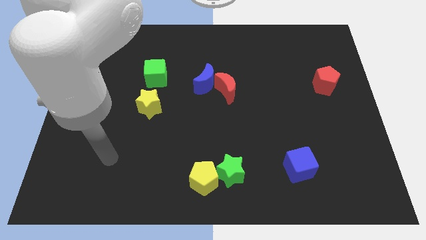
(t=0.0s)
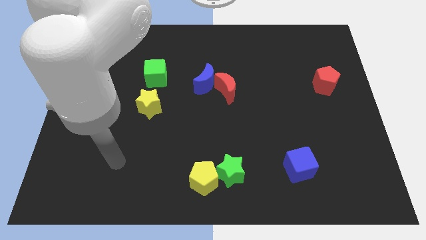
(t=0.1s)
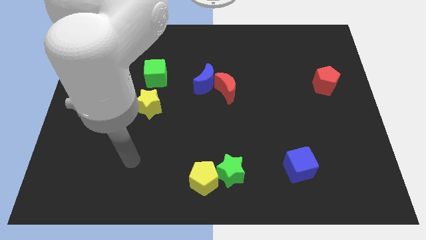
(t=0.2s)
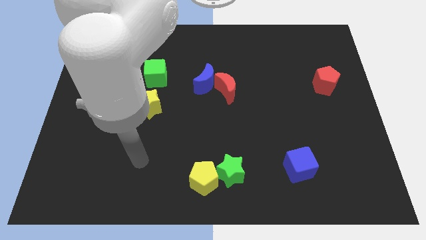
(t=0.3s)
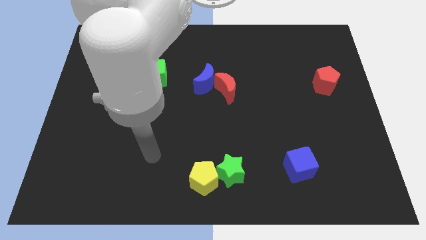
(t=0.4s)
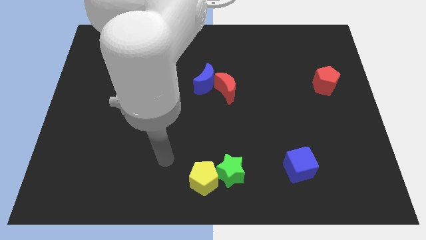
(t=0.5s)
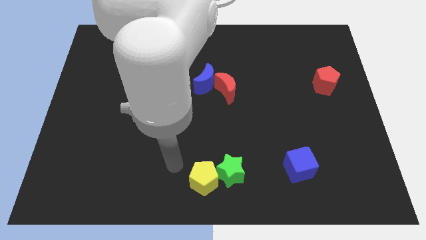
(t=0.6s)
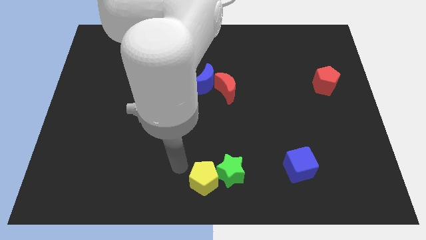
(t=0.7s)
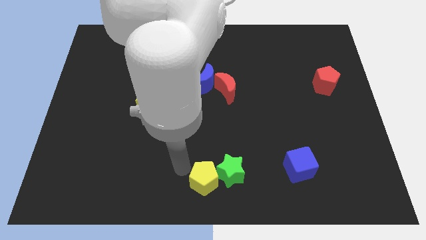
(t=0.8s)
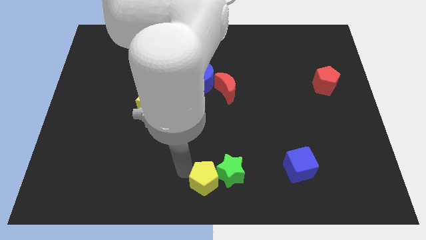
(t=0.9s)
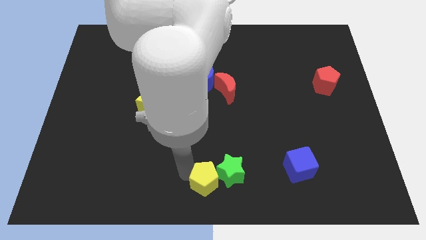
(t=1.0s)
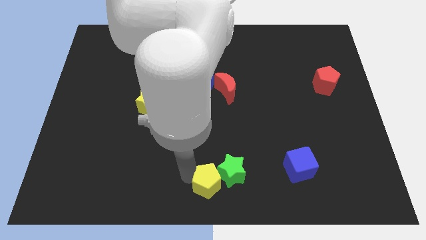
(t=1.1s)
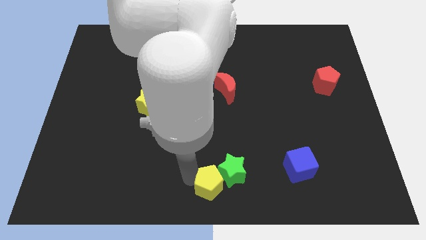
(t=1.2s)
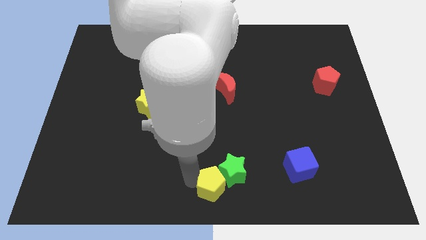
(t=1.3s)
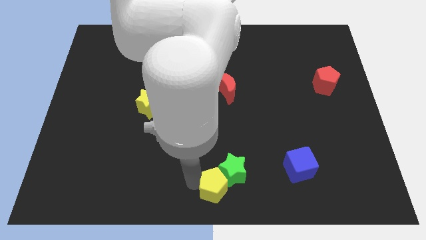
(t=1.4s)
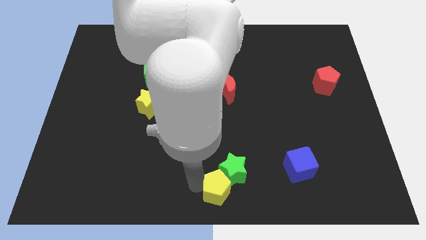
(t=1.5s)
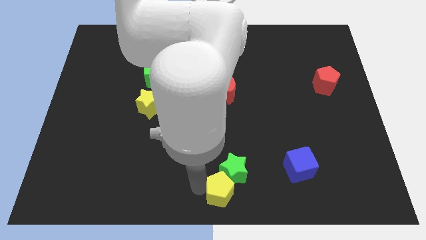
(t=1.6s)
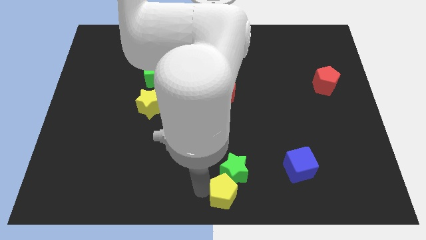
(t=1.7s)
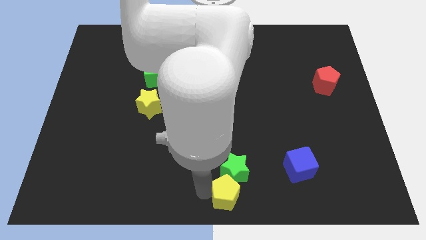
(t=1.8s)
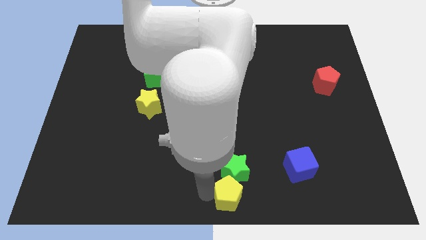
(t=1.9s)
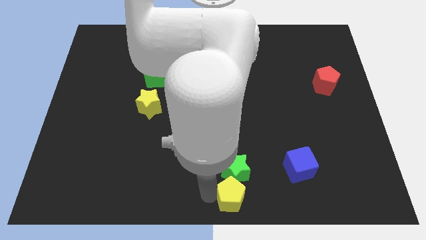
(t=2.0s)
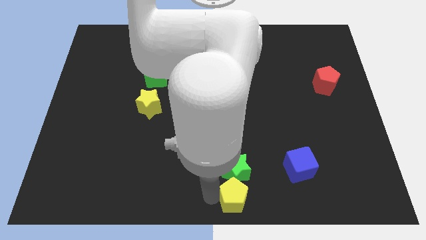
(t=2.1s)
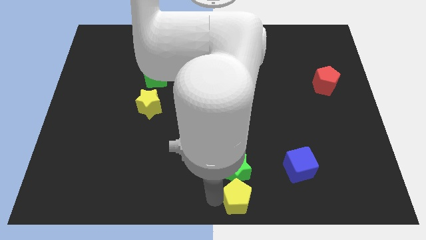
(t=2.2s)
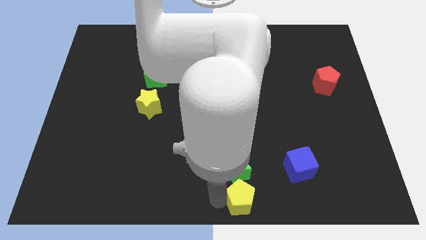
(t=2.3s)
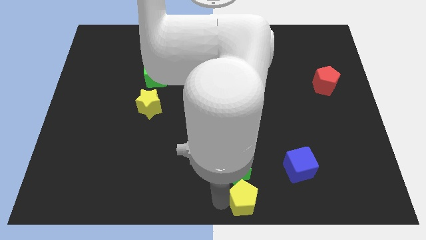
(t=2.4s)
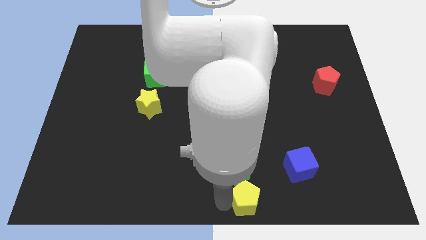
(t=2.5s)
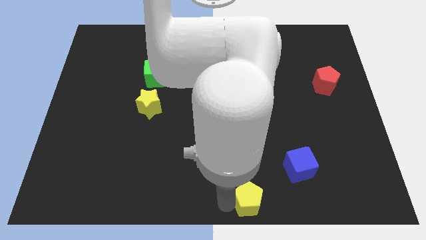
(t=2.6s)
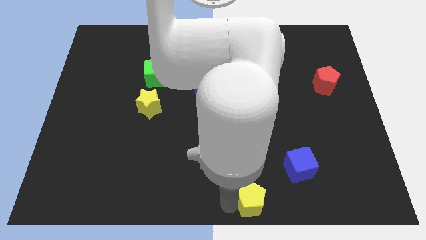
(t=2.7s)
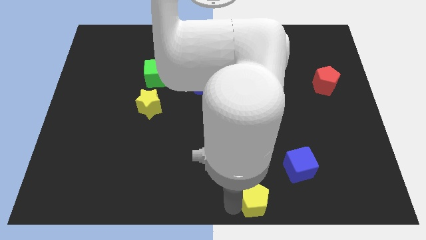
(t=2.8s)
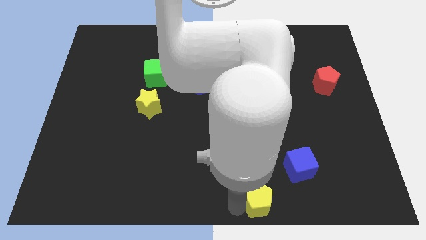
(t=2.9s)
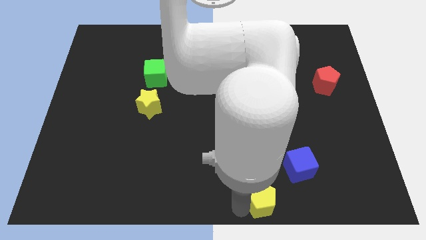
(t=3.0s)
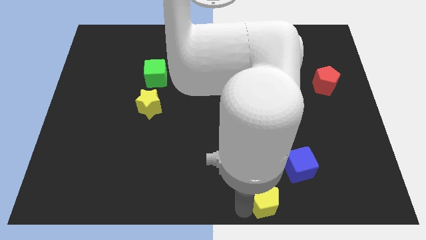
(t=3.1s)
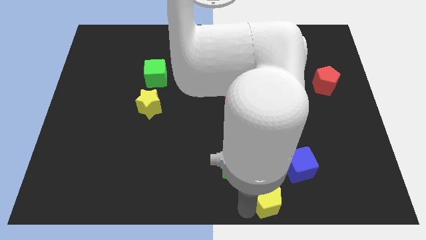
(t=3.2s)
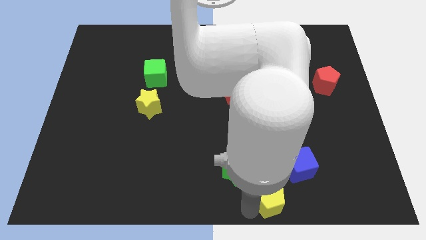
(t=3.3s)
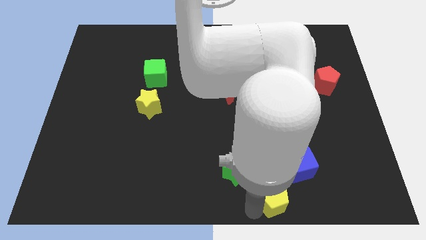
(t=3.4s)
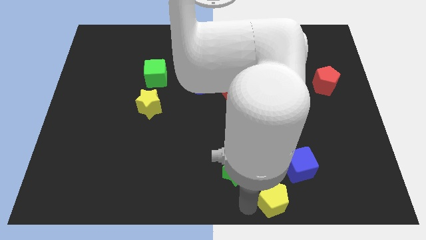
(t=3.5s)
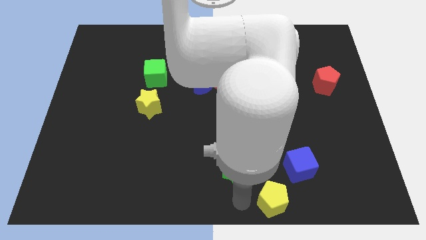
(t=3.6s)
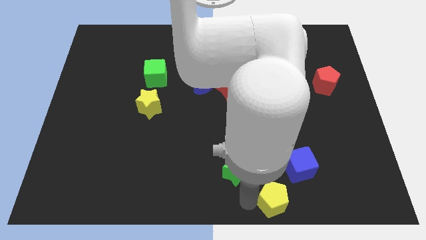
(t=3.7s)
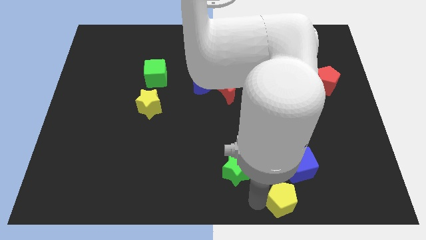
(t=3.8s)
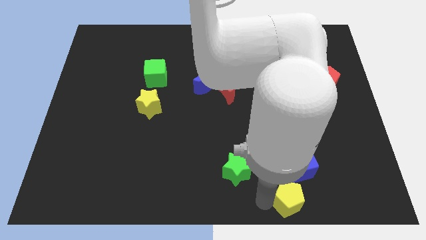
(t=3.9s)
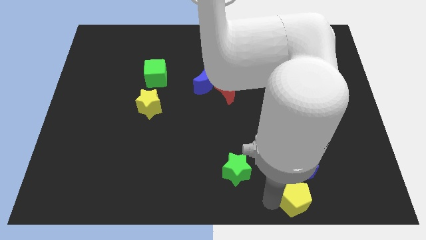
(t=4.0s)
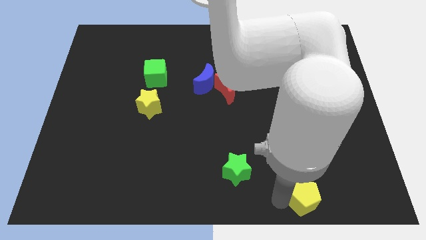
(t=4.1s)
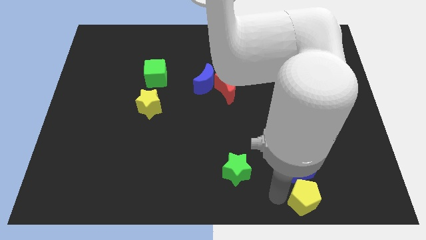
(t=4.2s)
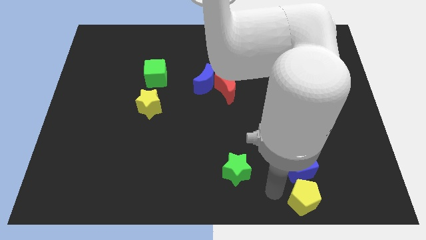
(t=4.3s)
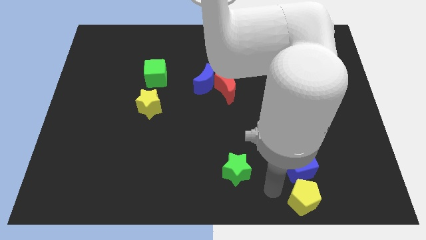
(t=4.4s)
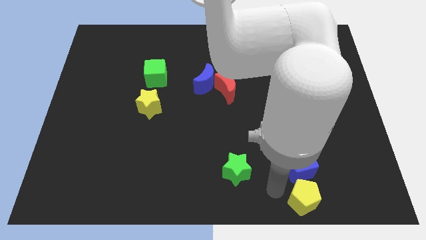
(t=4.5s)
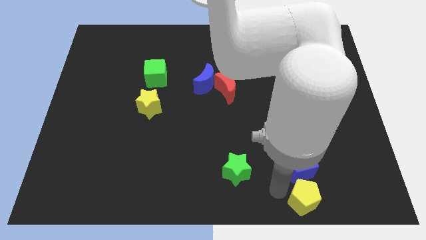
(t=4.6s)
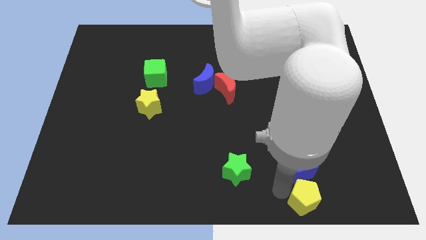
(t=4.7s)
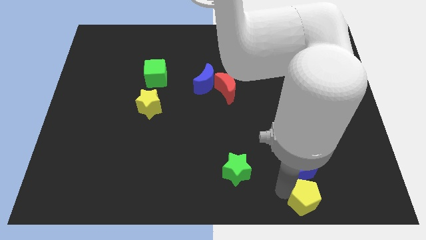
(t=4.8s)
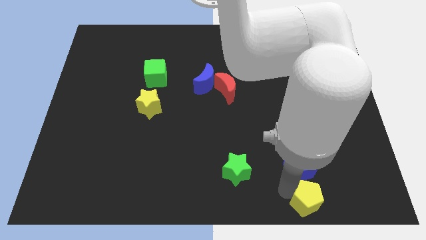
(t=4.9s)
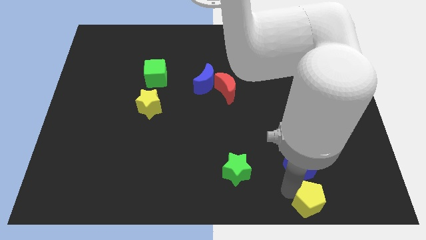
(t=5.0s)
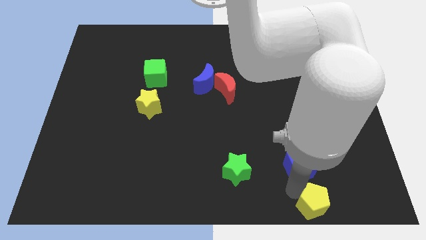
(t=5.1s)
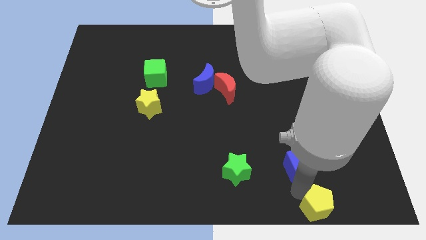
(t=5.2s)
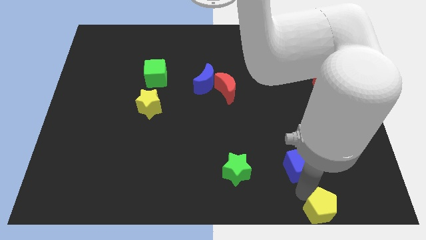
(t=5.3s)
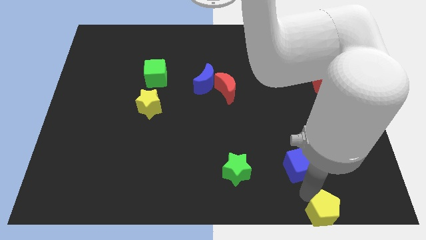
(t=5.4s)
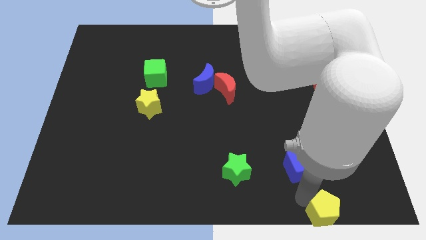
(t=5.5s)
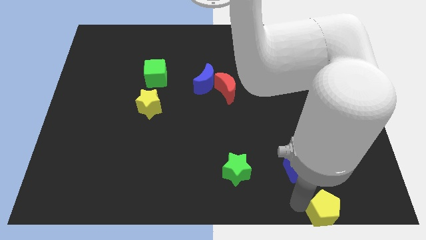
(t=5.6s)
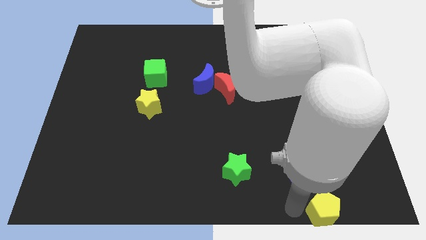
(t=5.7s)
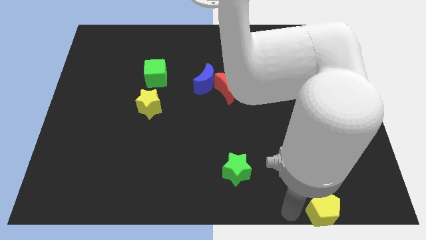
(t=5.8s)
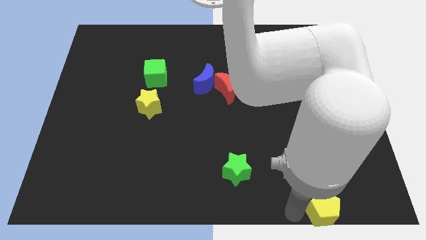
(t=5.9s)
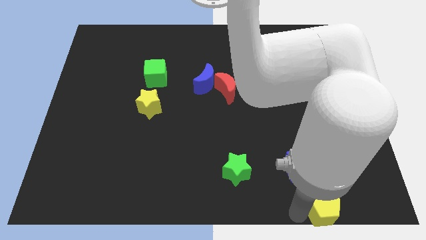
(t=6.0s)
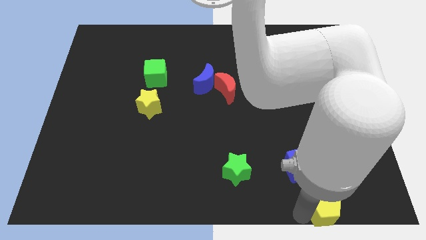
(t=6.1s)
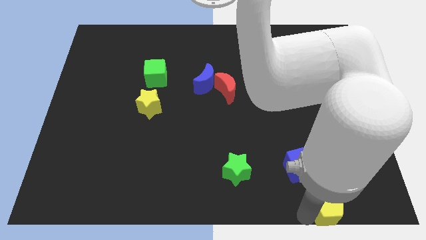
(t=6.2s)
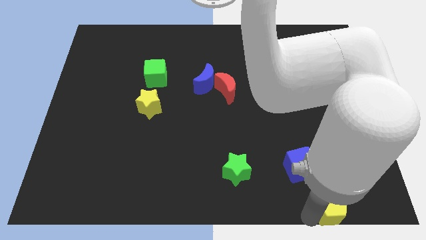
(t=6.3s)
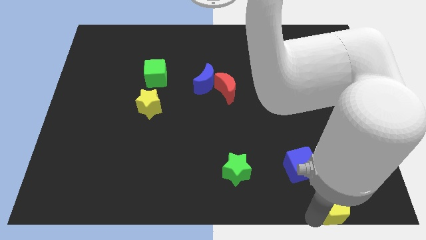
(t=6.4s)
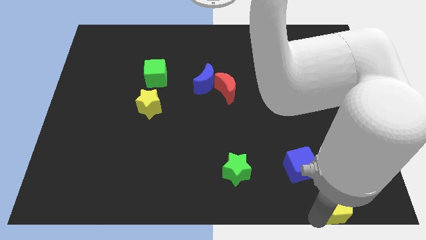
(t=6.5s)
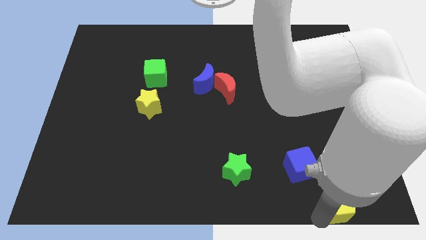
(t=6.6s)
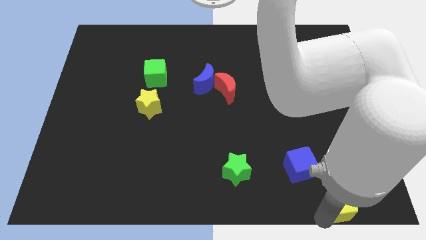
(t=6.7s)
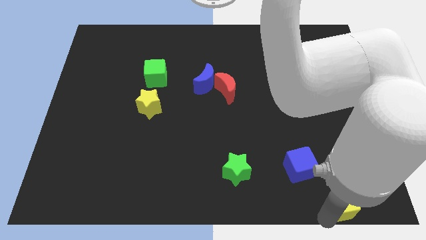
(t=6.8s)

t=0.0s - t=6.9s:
move the yellow pentagon to the bottom right corner

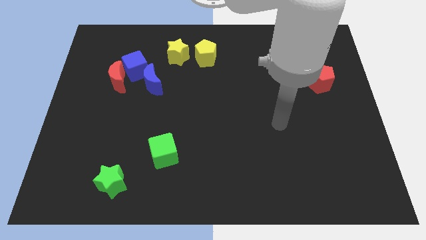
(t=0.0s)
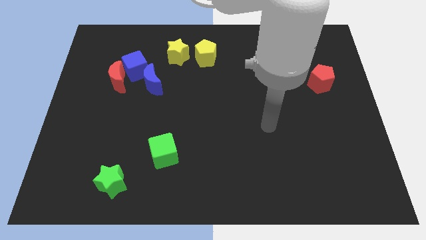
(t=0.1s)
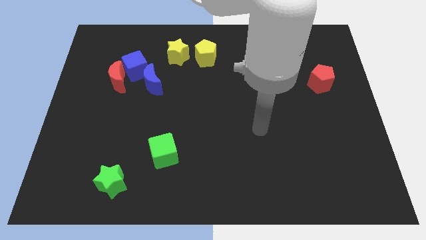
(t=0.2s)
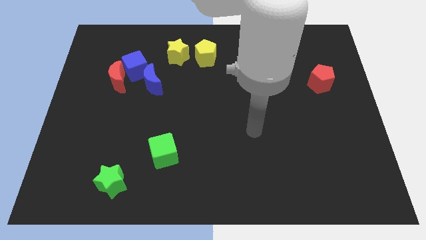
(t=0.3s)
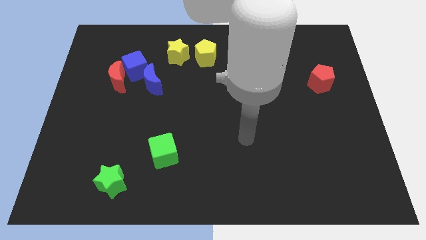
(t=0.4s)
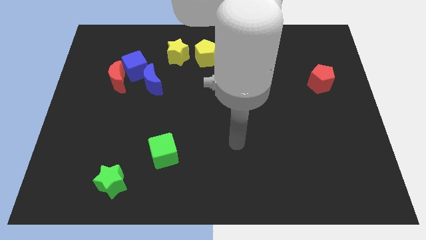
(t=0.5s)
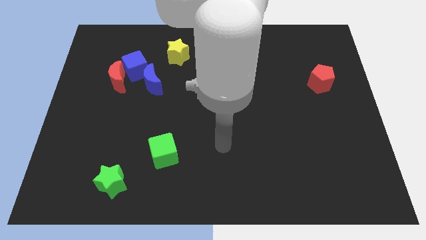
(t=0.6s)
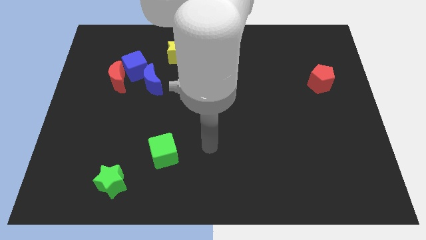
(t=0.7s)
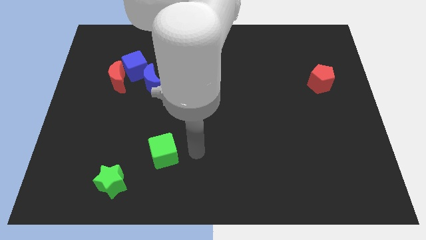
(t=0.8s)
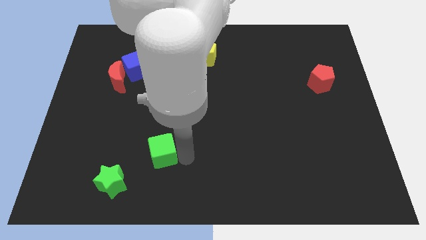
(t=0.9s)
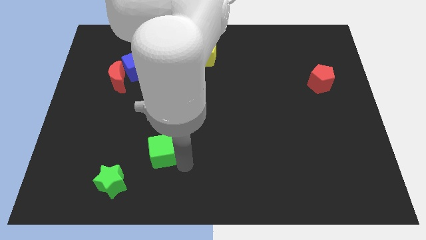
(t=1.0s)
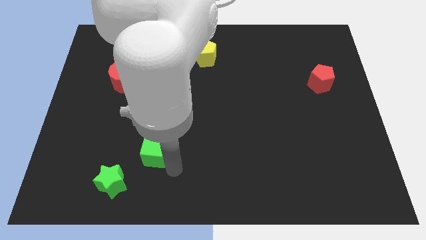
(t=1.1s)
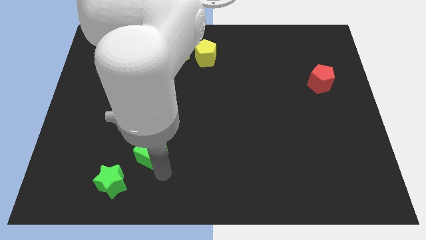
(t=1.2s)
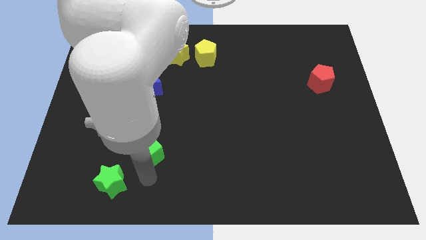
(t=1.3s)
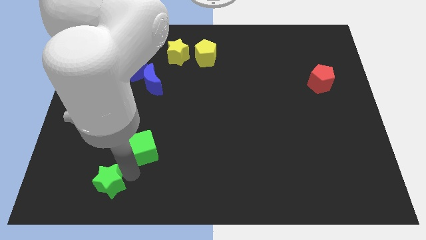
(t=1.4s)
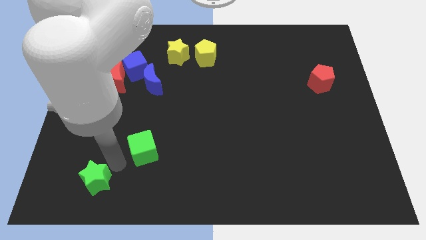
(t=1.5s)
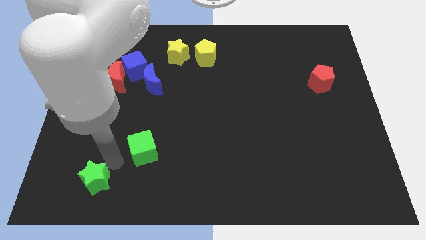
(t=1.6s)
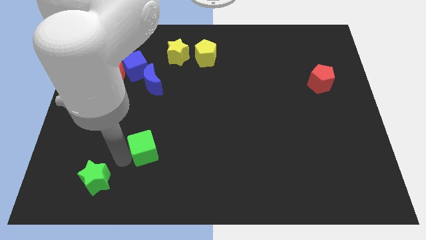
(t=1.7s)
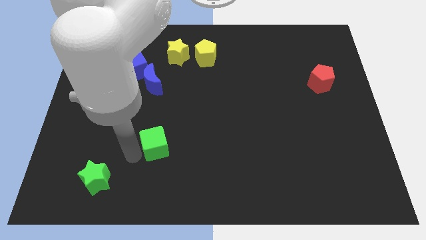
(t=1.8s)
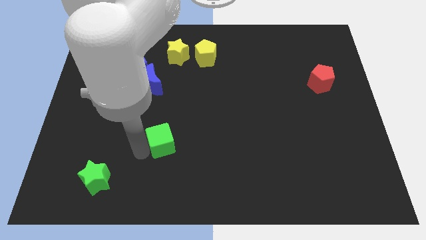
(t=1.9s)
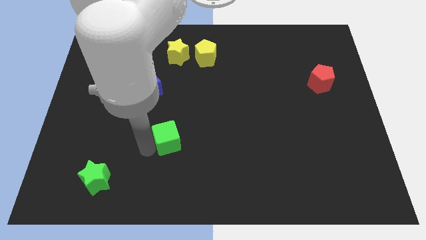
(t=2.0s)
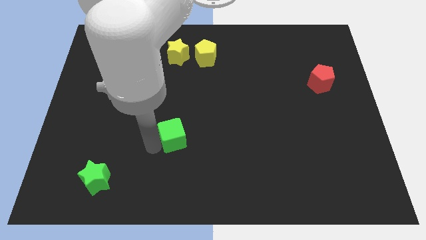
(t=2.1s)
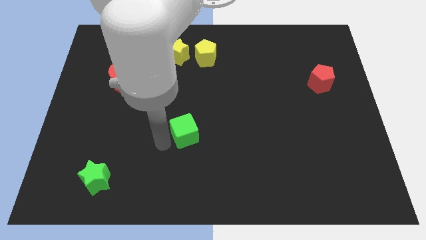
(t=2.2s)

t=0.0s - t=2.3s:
move the green cube to the center
